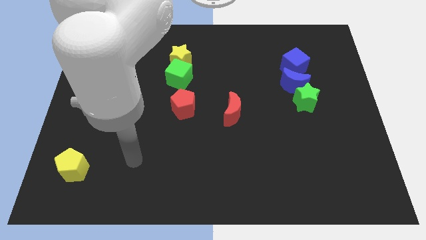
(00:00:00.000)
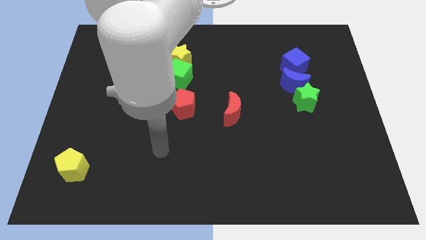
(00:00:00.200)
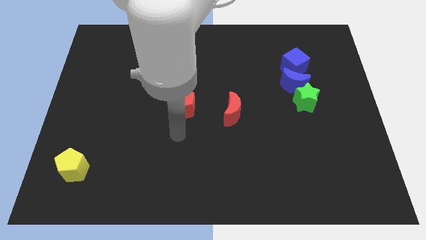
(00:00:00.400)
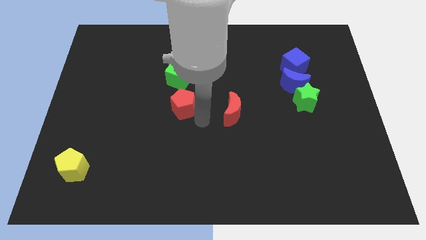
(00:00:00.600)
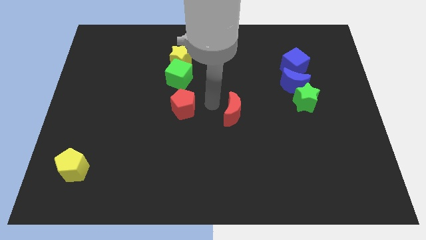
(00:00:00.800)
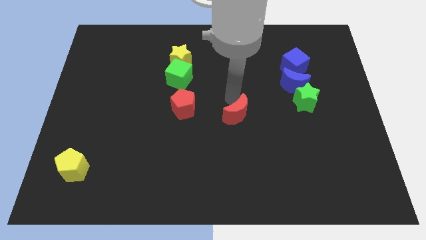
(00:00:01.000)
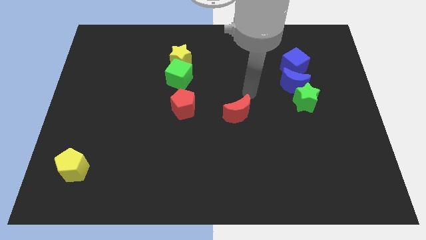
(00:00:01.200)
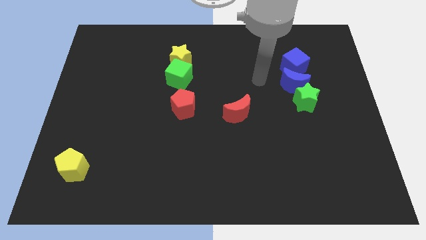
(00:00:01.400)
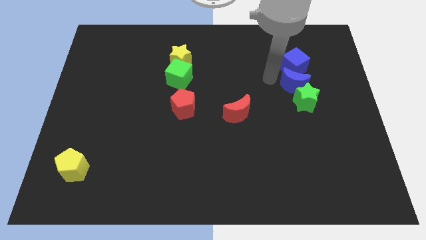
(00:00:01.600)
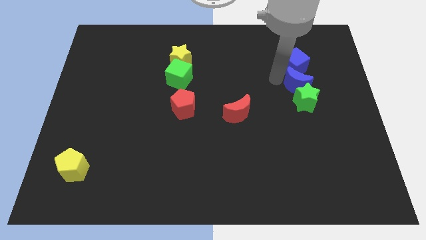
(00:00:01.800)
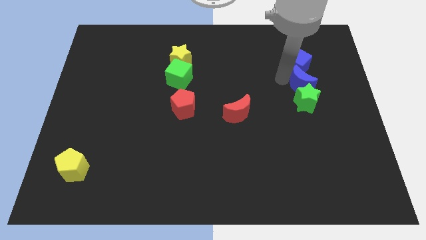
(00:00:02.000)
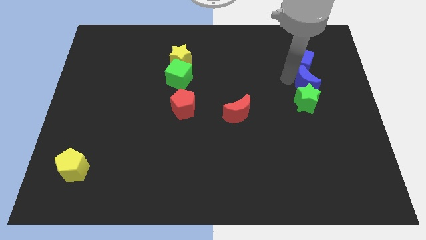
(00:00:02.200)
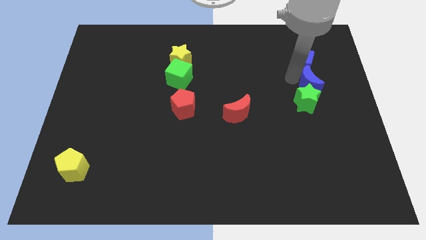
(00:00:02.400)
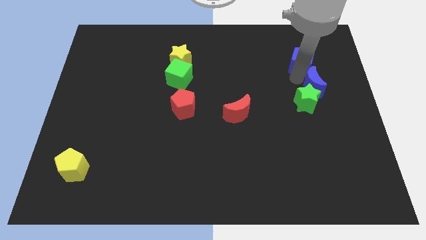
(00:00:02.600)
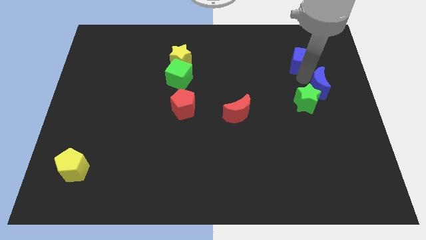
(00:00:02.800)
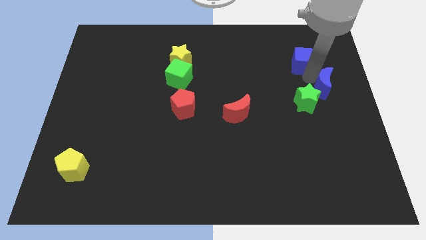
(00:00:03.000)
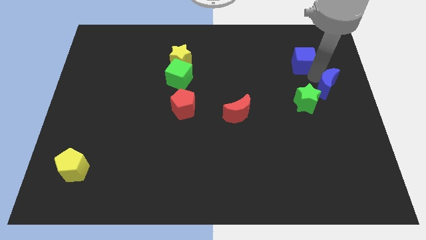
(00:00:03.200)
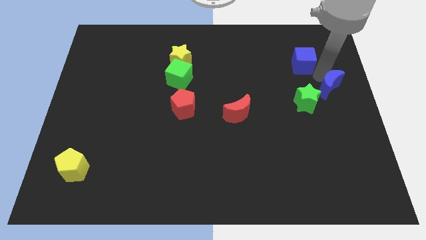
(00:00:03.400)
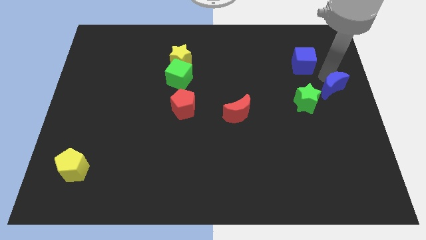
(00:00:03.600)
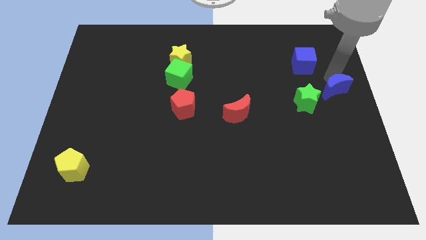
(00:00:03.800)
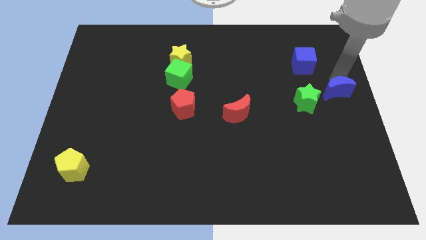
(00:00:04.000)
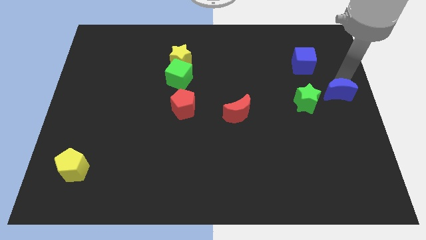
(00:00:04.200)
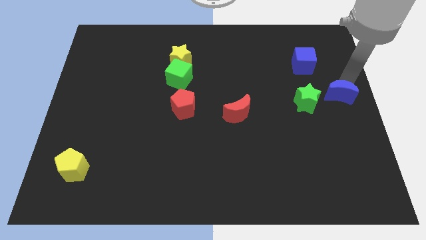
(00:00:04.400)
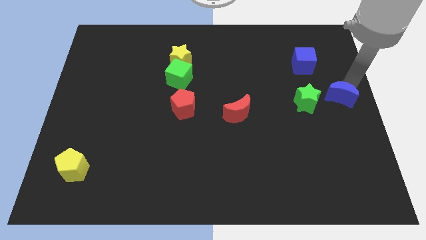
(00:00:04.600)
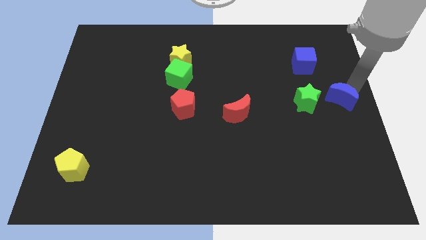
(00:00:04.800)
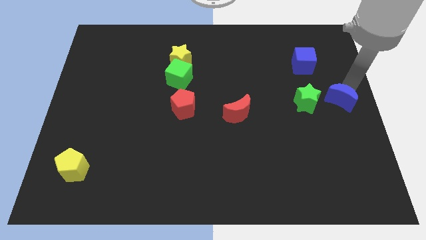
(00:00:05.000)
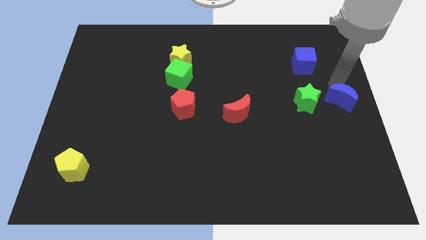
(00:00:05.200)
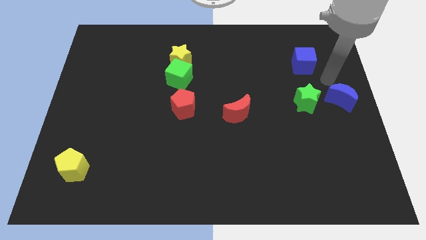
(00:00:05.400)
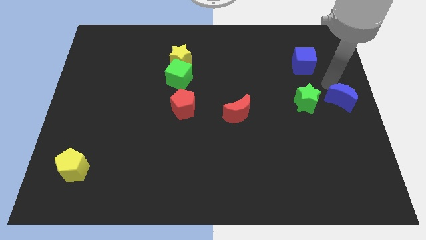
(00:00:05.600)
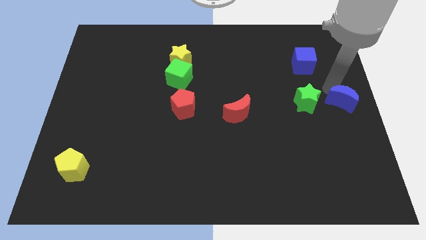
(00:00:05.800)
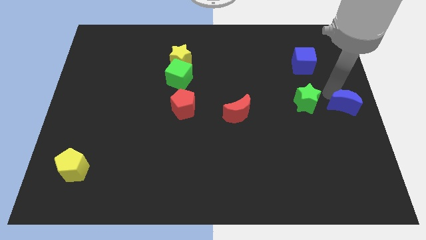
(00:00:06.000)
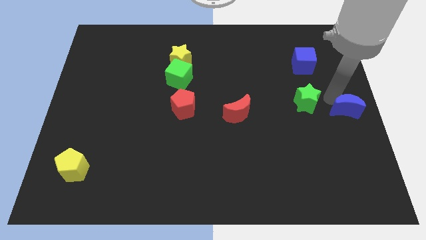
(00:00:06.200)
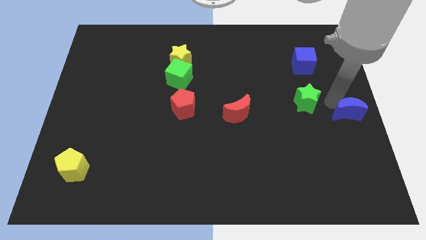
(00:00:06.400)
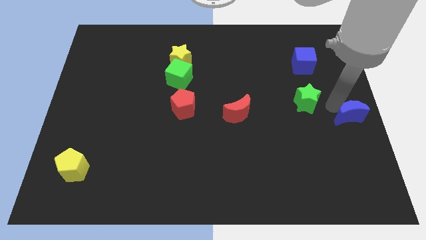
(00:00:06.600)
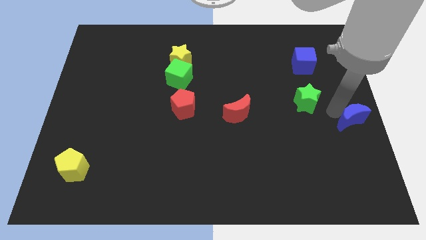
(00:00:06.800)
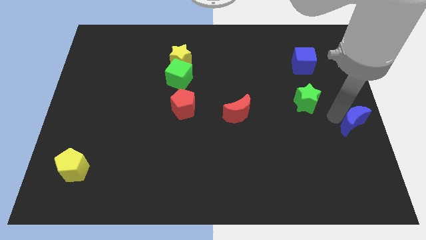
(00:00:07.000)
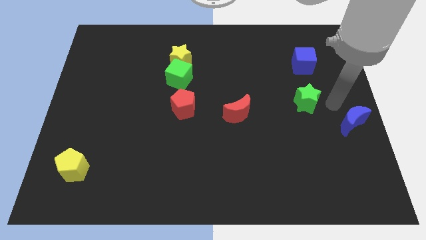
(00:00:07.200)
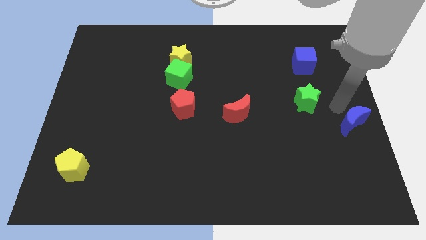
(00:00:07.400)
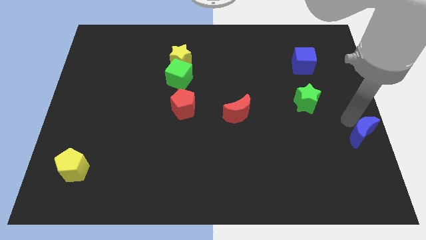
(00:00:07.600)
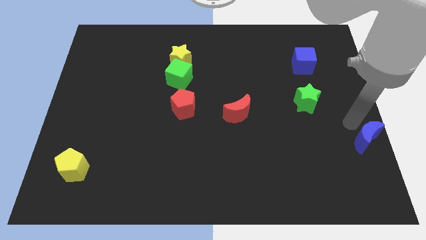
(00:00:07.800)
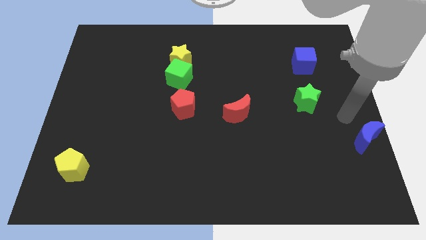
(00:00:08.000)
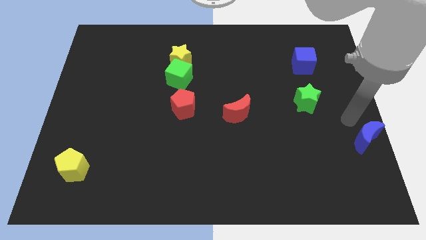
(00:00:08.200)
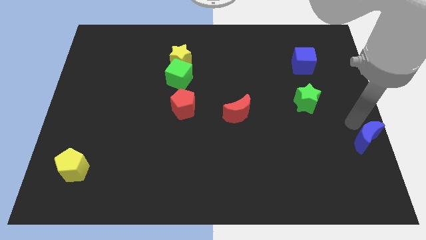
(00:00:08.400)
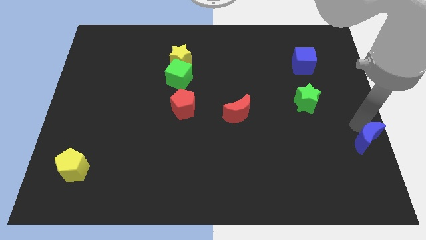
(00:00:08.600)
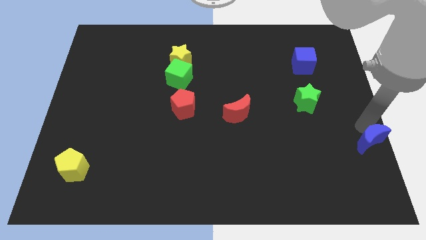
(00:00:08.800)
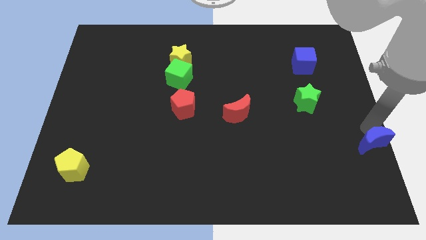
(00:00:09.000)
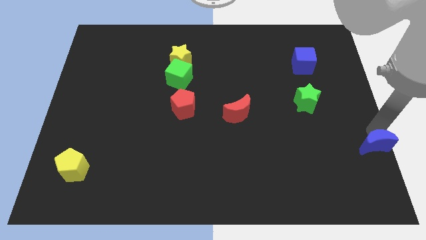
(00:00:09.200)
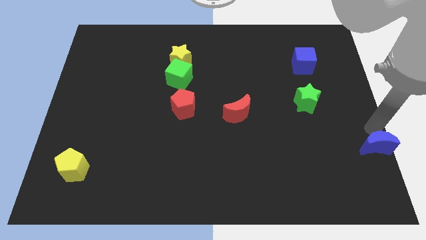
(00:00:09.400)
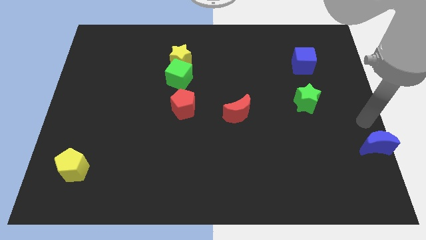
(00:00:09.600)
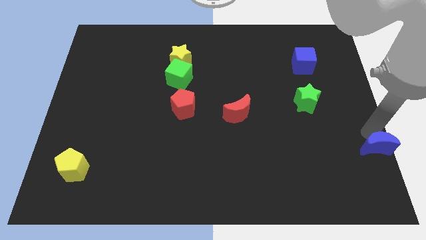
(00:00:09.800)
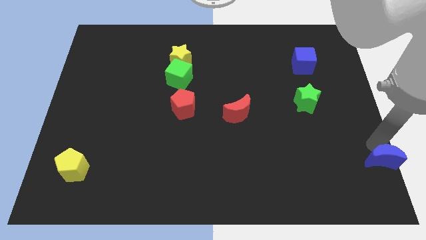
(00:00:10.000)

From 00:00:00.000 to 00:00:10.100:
move the blue moon to the bottom right of the board
